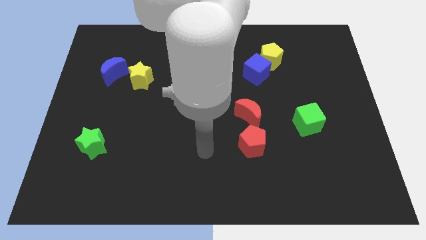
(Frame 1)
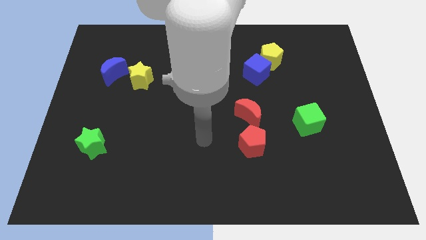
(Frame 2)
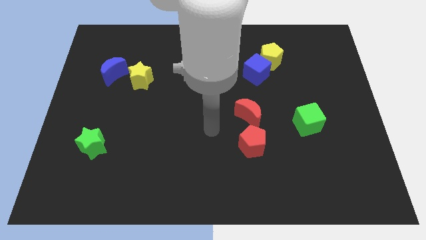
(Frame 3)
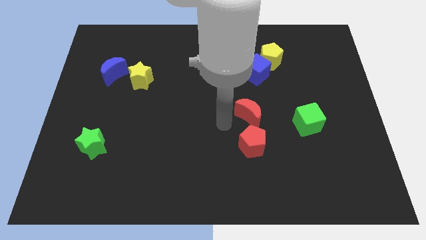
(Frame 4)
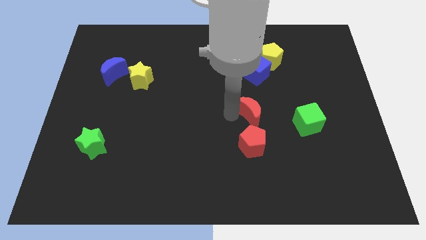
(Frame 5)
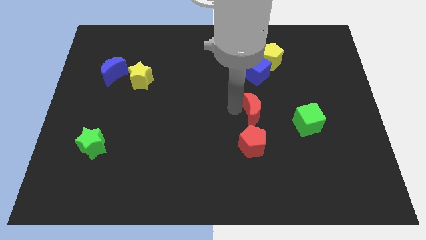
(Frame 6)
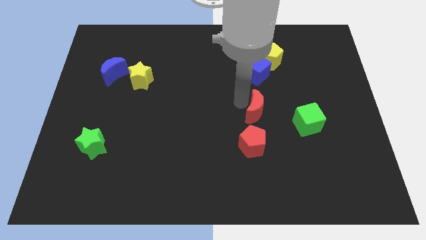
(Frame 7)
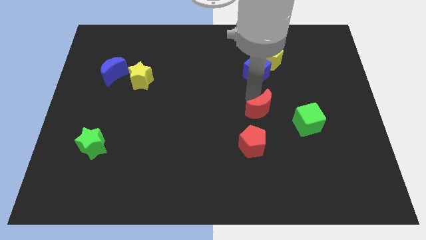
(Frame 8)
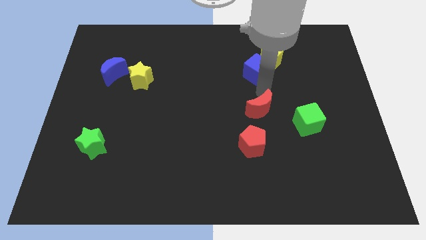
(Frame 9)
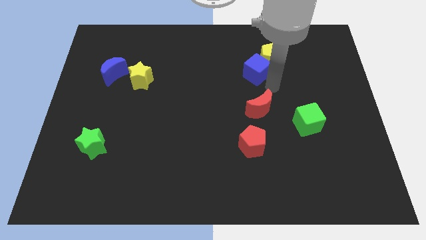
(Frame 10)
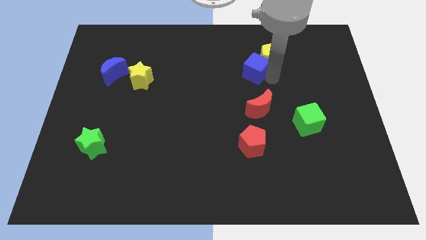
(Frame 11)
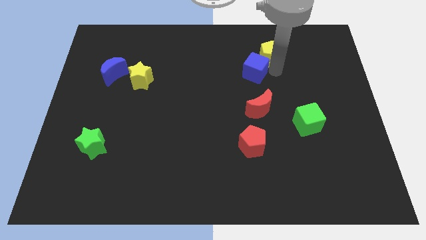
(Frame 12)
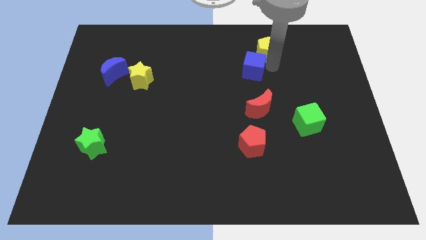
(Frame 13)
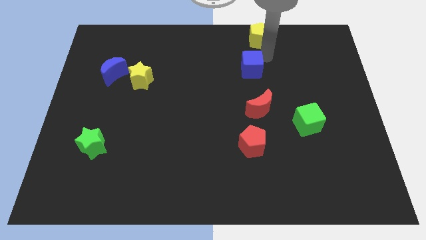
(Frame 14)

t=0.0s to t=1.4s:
pull the blue cube apart from the yellow pentagon

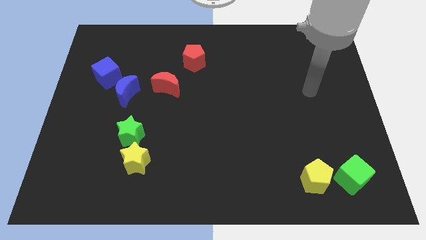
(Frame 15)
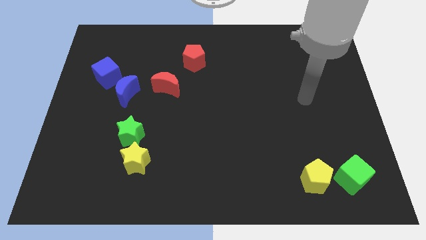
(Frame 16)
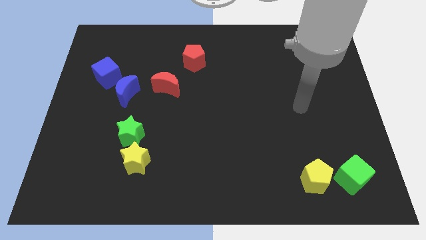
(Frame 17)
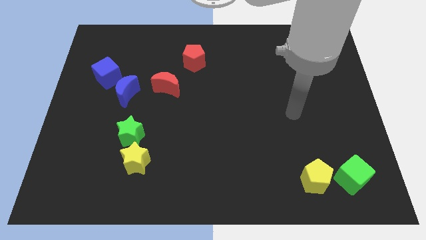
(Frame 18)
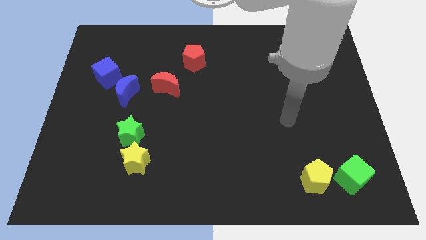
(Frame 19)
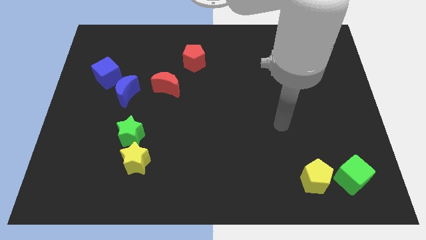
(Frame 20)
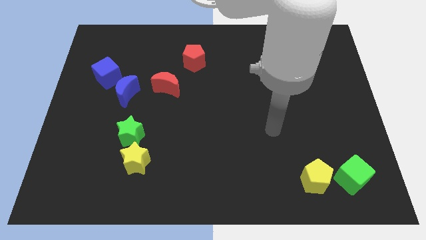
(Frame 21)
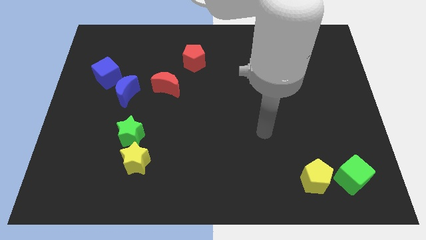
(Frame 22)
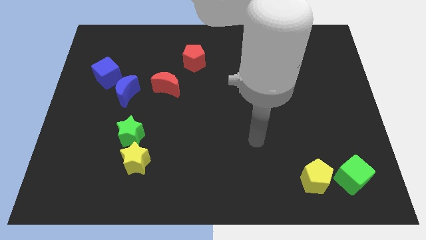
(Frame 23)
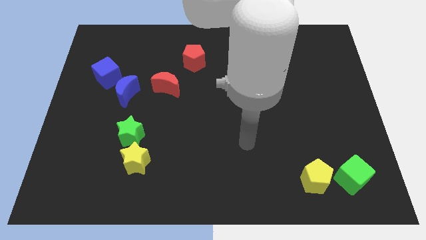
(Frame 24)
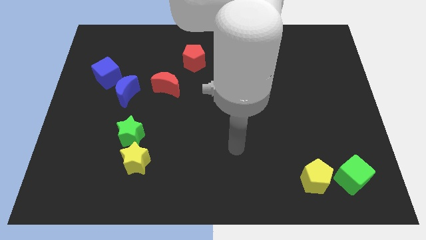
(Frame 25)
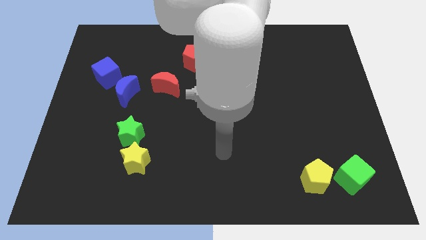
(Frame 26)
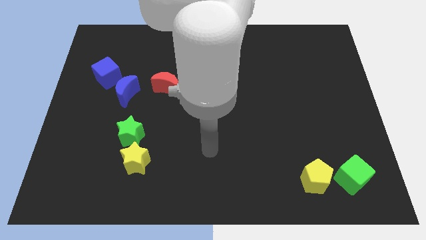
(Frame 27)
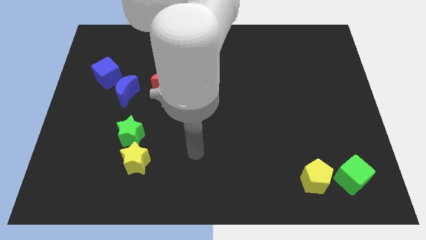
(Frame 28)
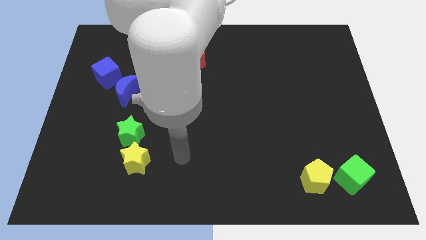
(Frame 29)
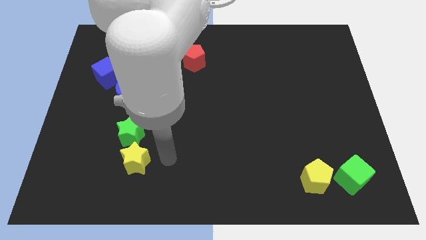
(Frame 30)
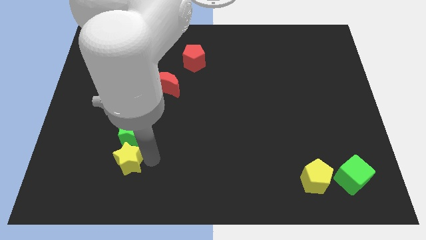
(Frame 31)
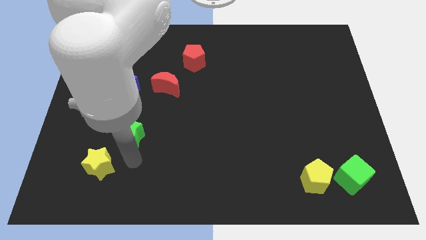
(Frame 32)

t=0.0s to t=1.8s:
pull the green star apart from the yellow star

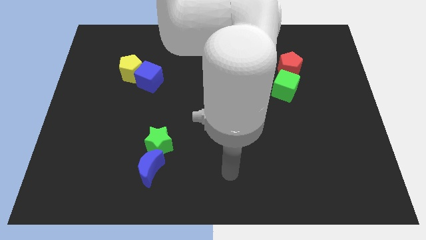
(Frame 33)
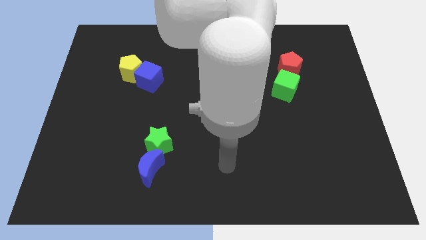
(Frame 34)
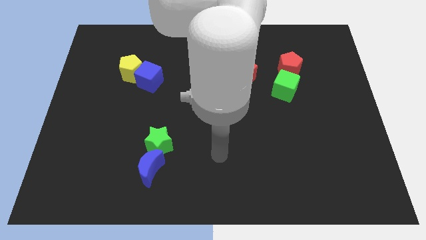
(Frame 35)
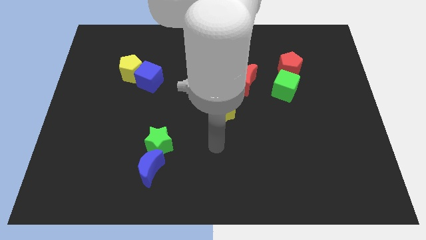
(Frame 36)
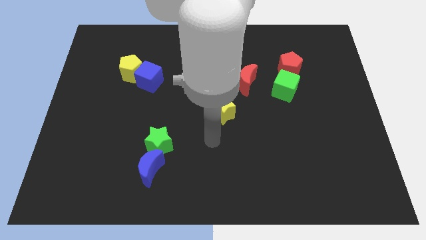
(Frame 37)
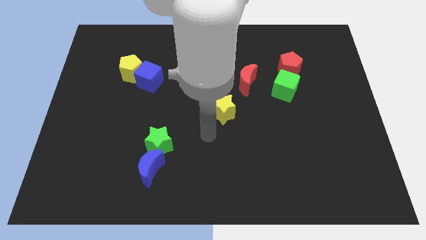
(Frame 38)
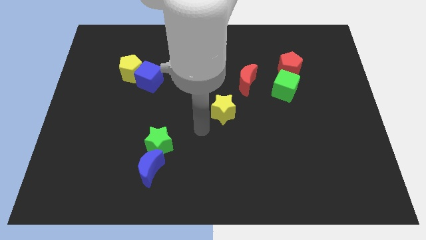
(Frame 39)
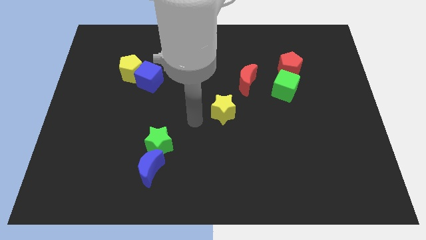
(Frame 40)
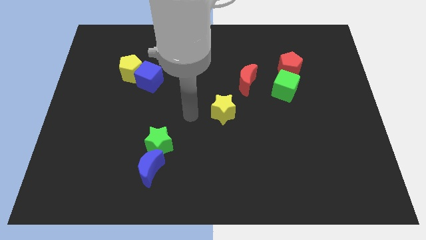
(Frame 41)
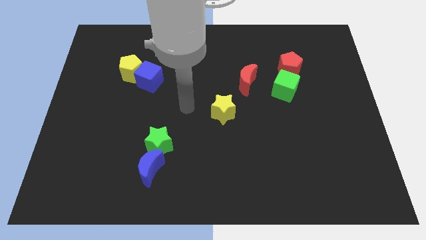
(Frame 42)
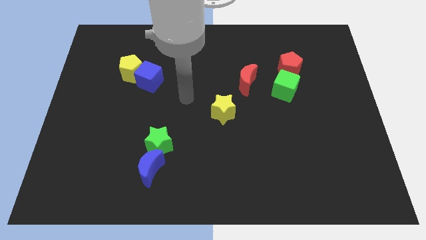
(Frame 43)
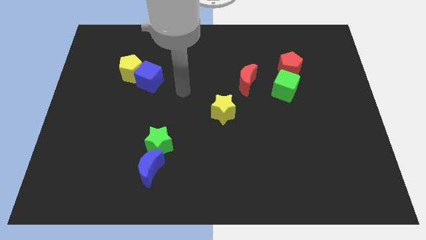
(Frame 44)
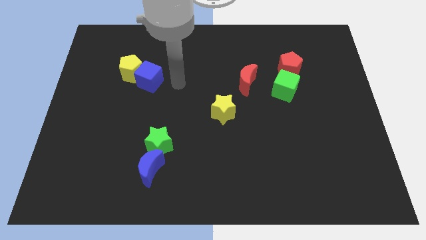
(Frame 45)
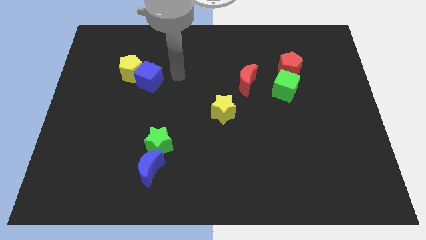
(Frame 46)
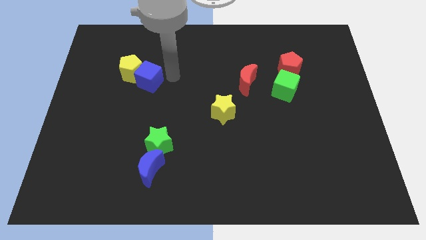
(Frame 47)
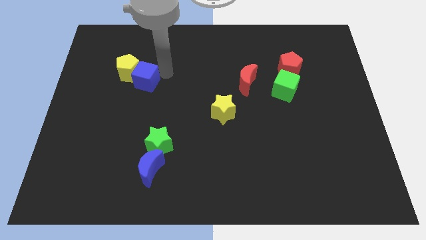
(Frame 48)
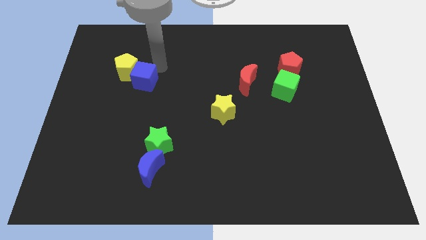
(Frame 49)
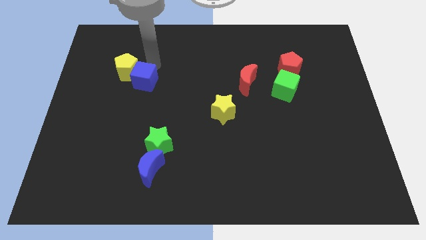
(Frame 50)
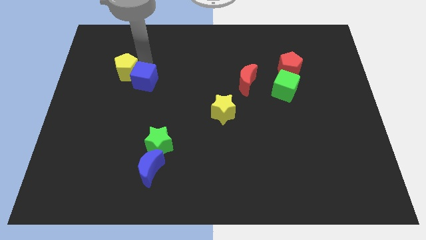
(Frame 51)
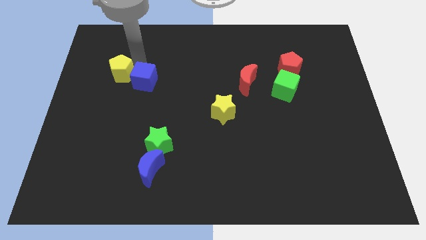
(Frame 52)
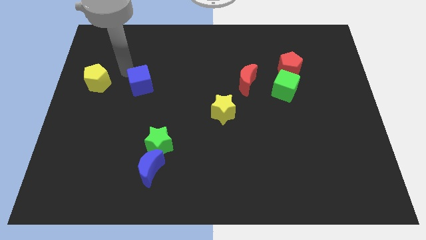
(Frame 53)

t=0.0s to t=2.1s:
separate the blue cube from the yellow pentagon

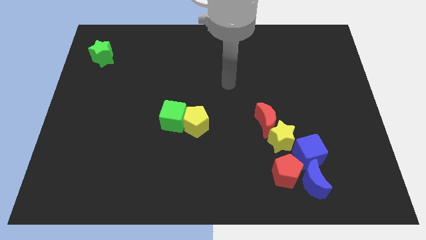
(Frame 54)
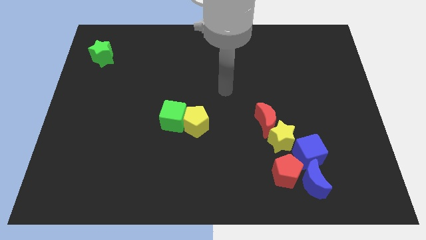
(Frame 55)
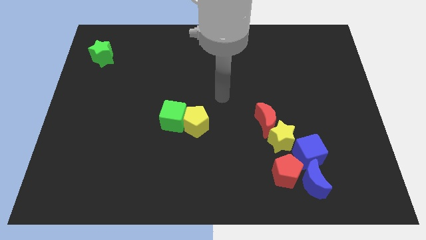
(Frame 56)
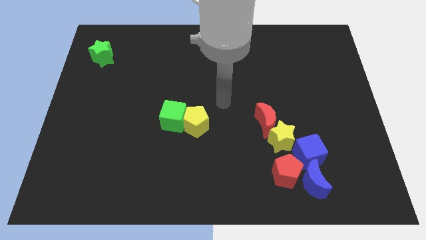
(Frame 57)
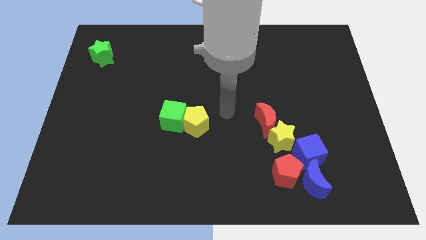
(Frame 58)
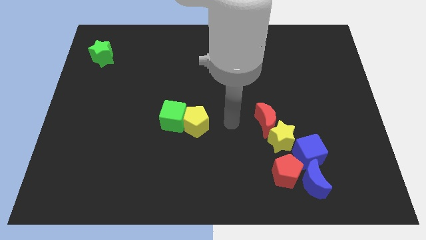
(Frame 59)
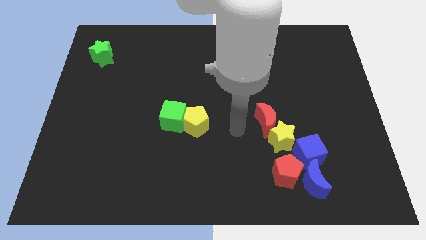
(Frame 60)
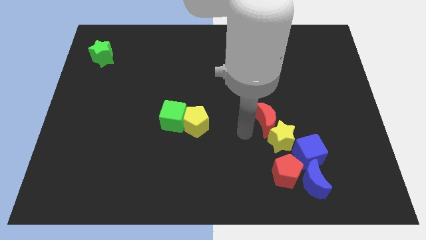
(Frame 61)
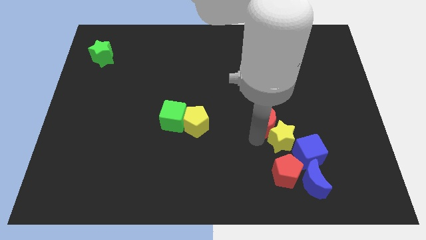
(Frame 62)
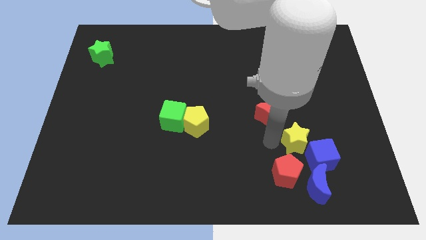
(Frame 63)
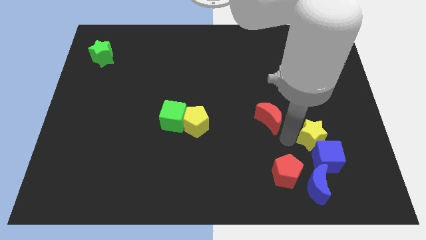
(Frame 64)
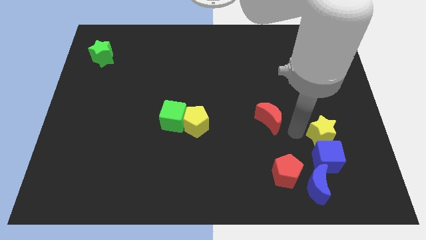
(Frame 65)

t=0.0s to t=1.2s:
separate the red moon from the yellow star

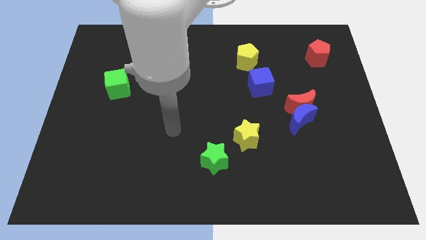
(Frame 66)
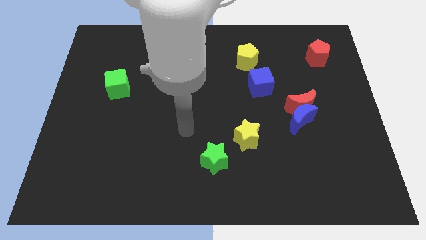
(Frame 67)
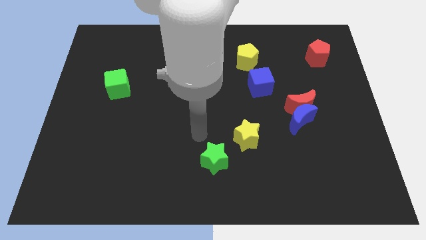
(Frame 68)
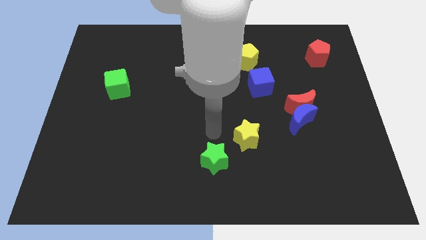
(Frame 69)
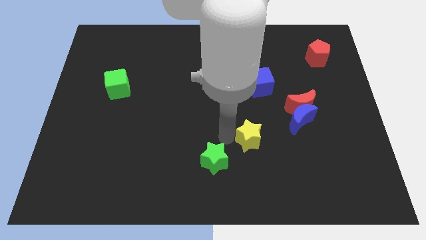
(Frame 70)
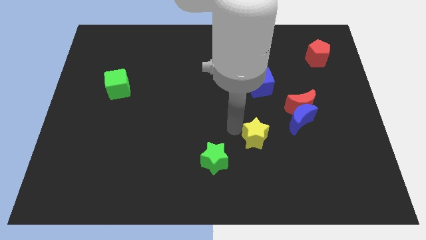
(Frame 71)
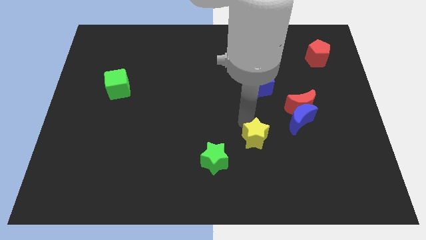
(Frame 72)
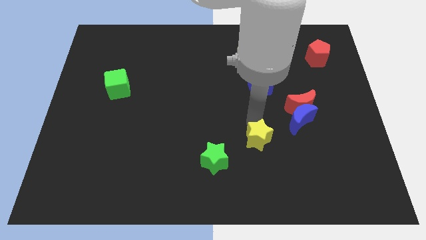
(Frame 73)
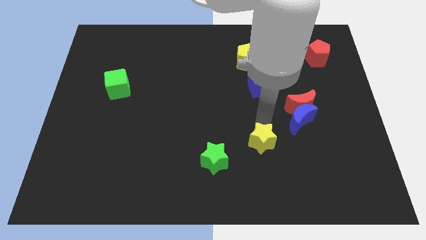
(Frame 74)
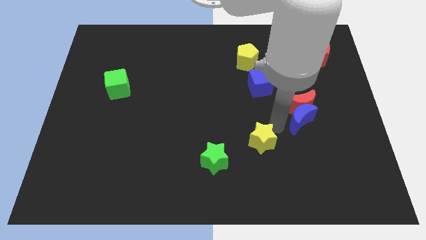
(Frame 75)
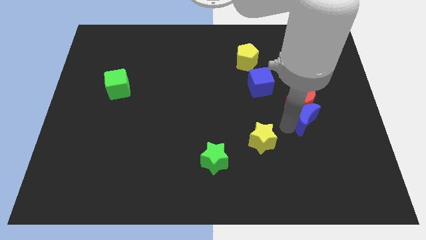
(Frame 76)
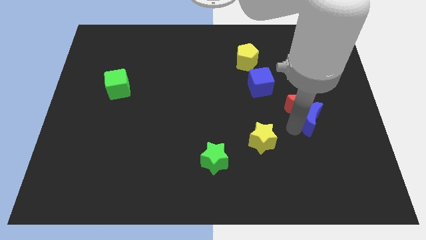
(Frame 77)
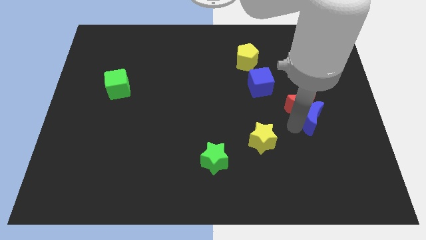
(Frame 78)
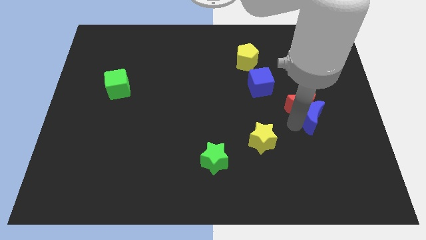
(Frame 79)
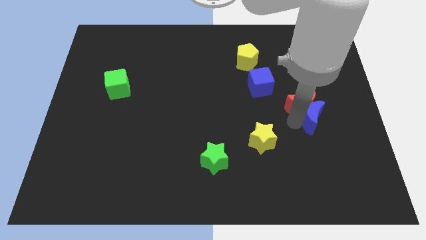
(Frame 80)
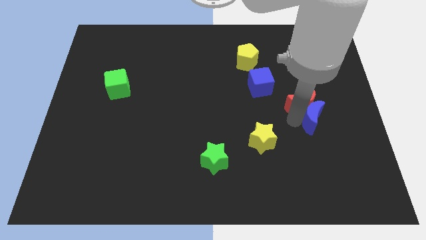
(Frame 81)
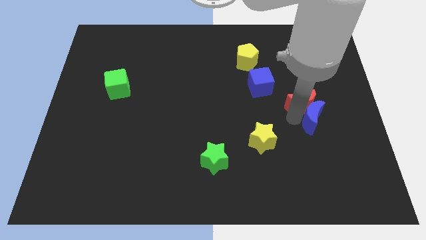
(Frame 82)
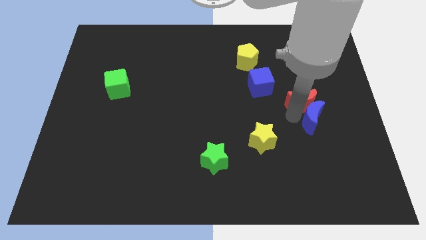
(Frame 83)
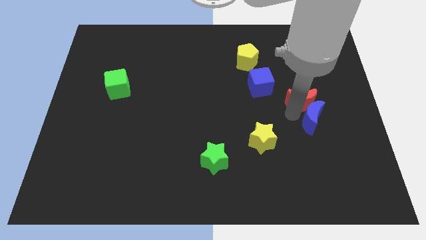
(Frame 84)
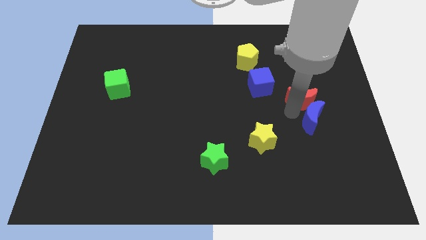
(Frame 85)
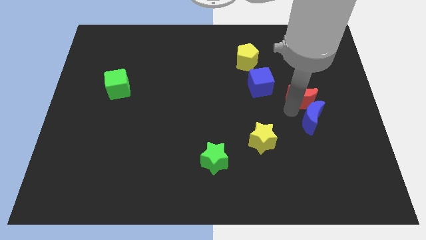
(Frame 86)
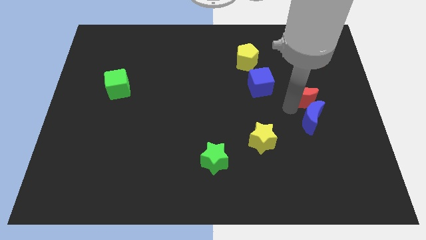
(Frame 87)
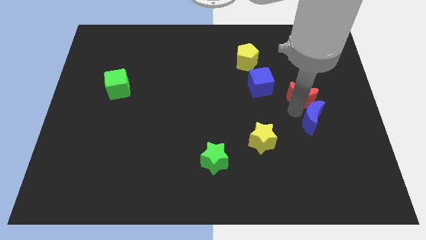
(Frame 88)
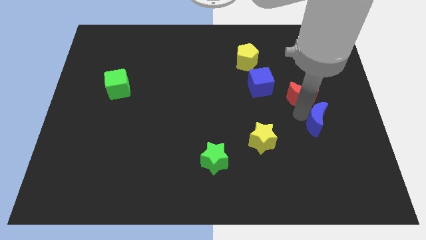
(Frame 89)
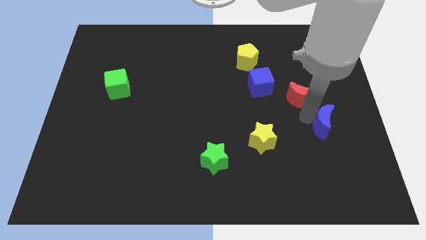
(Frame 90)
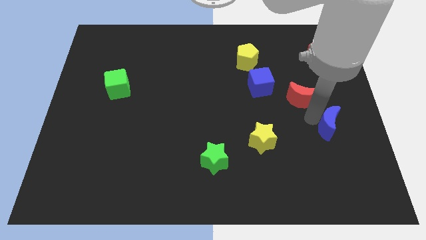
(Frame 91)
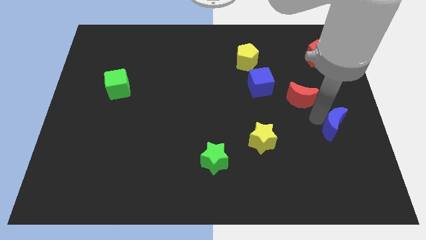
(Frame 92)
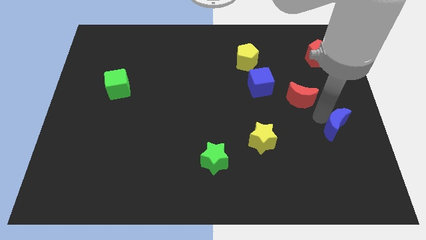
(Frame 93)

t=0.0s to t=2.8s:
separate the red moon from the blue moon
